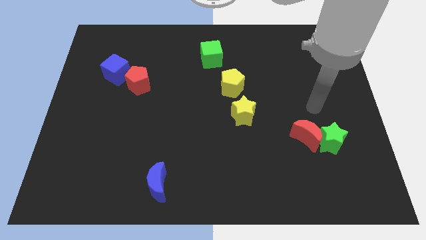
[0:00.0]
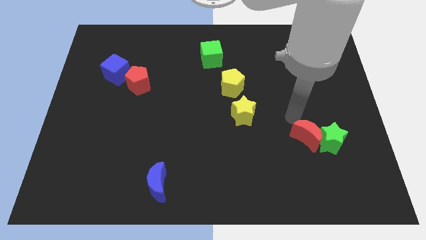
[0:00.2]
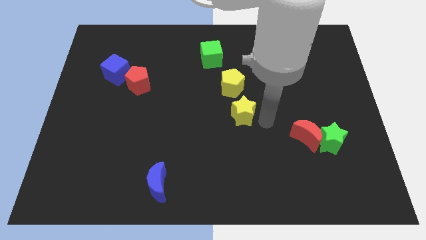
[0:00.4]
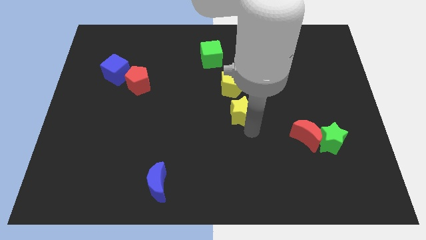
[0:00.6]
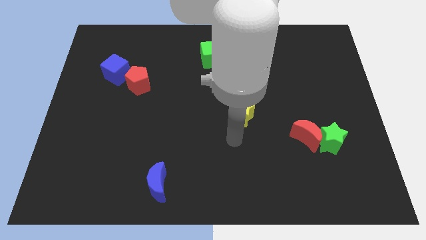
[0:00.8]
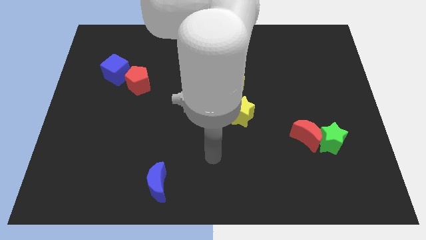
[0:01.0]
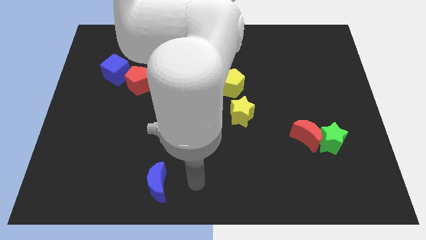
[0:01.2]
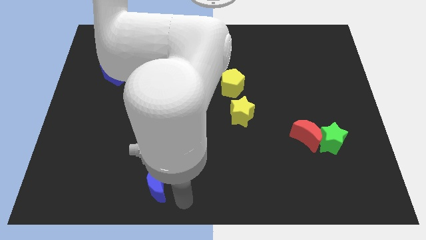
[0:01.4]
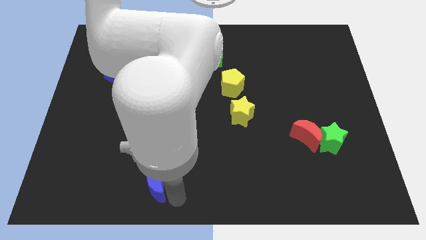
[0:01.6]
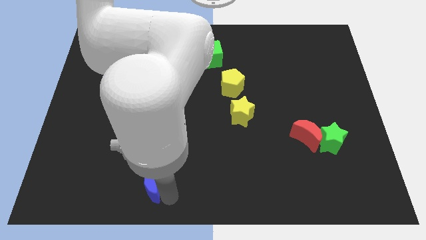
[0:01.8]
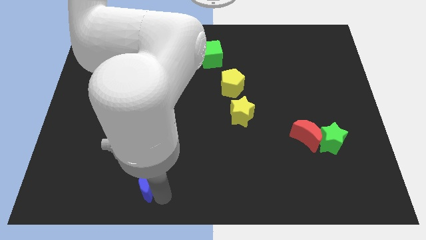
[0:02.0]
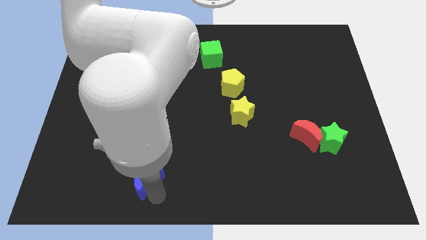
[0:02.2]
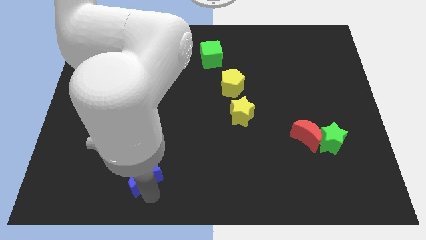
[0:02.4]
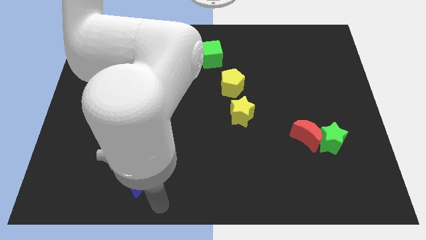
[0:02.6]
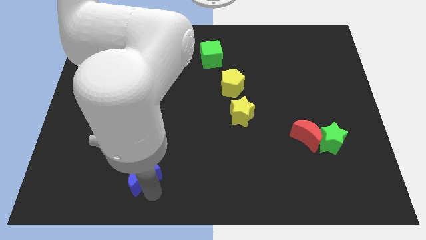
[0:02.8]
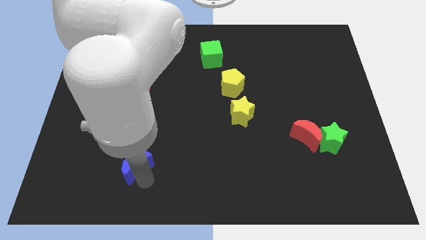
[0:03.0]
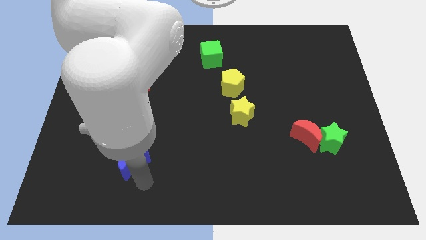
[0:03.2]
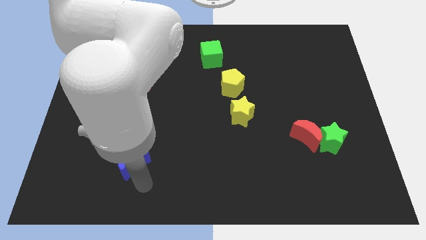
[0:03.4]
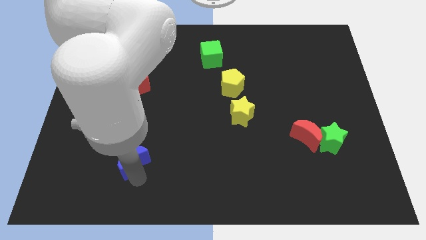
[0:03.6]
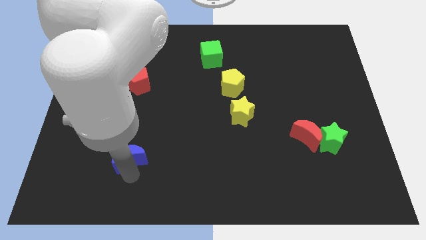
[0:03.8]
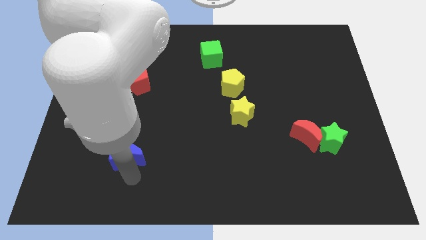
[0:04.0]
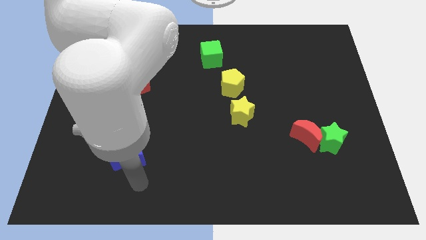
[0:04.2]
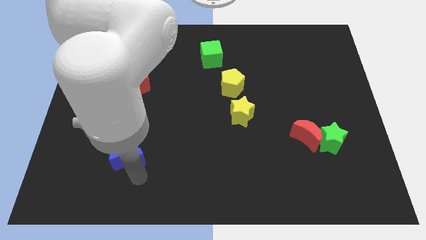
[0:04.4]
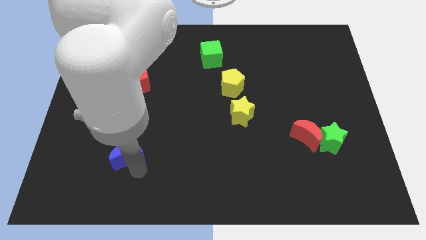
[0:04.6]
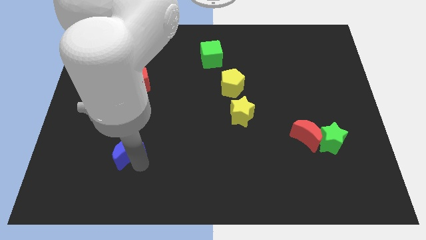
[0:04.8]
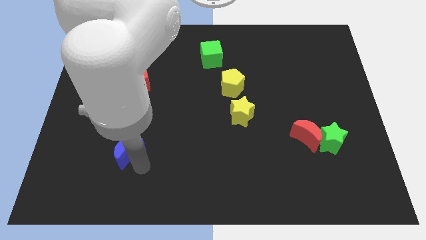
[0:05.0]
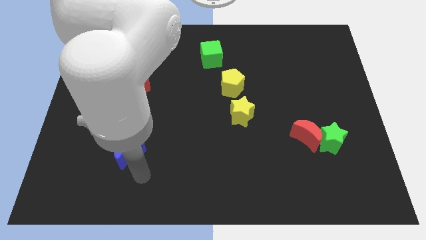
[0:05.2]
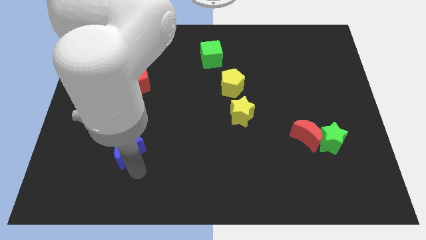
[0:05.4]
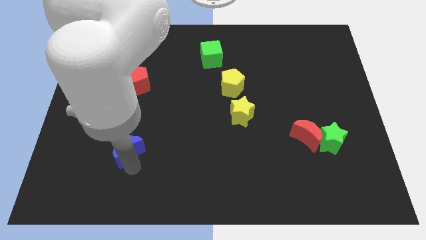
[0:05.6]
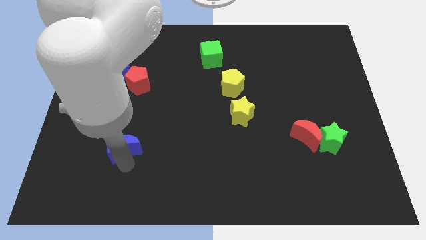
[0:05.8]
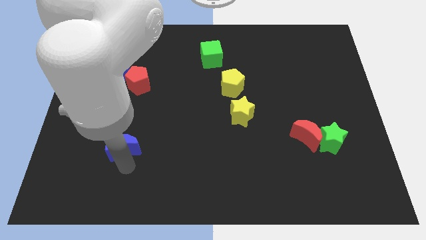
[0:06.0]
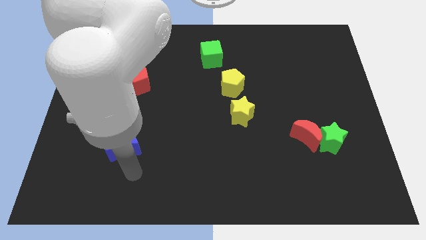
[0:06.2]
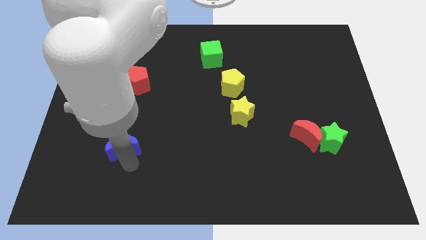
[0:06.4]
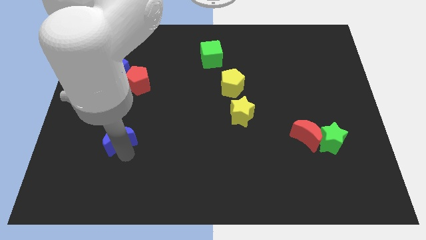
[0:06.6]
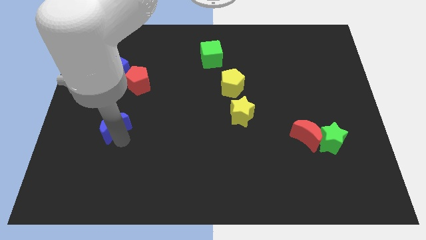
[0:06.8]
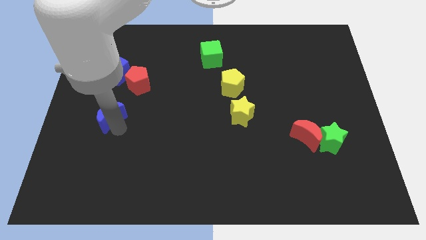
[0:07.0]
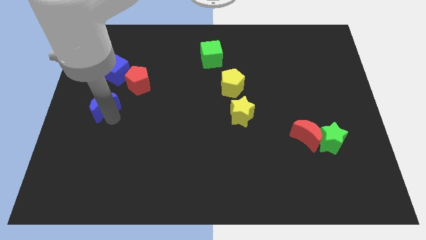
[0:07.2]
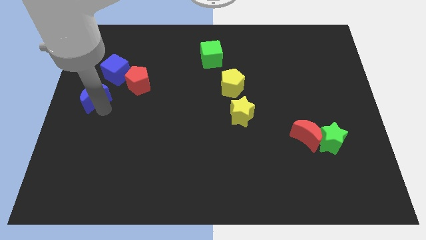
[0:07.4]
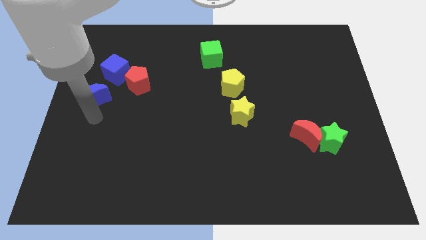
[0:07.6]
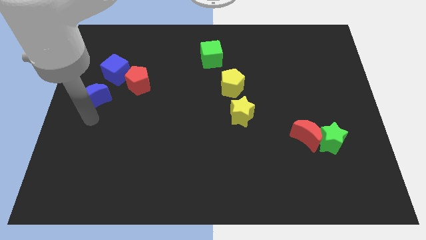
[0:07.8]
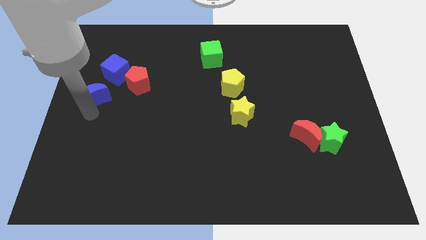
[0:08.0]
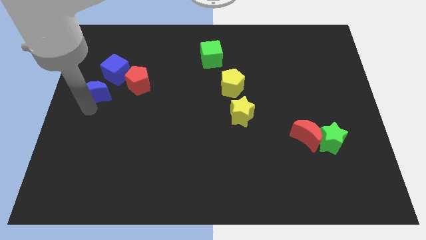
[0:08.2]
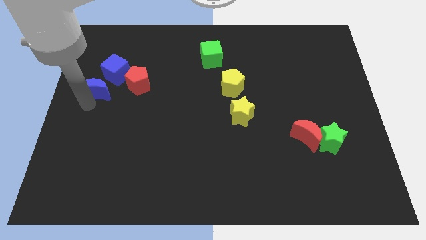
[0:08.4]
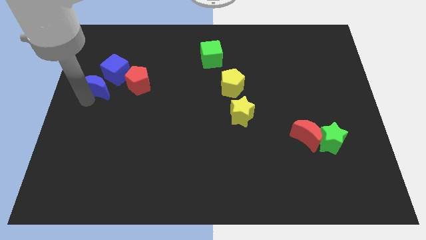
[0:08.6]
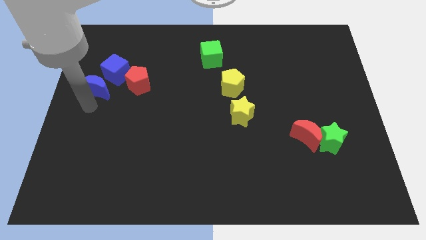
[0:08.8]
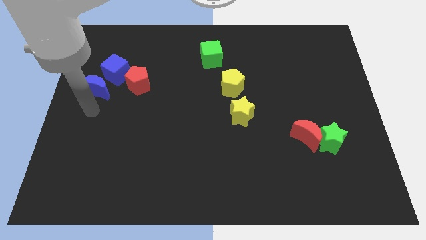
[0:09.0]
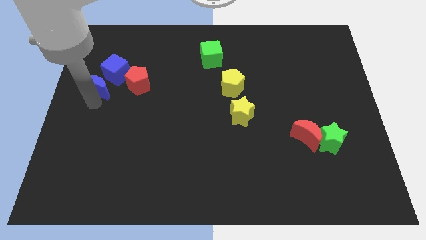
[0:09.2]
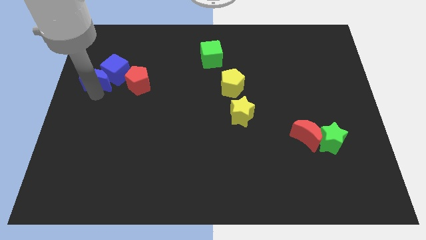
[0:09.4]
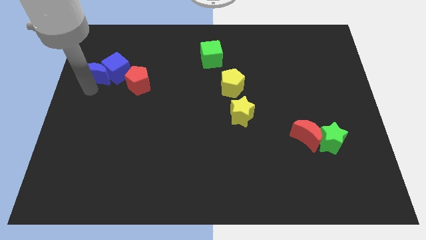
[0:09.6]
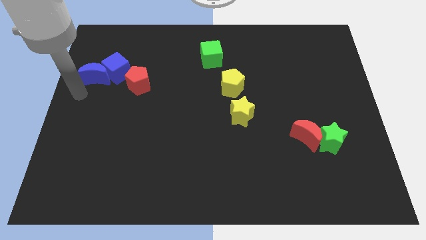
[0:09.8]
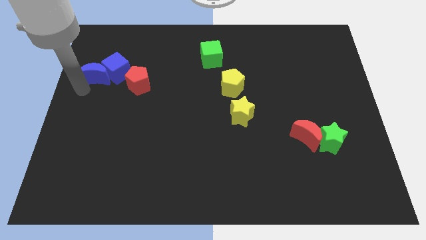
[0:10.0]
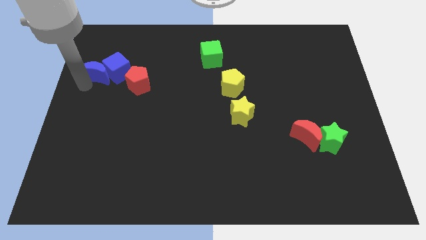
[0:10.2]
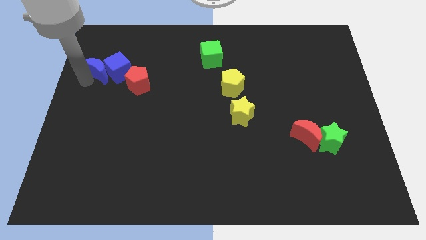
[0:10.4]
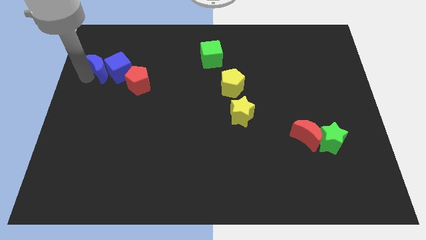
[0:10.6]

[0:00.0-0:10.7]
put the blue moon diagonally up and to the left of the red pentagon

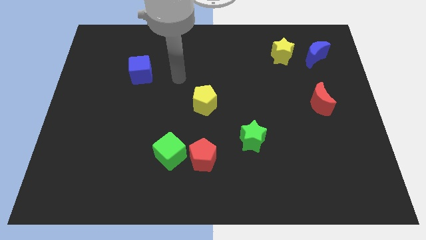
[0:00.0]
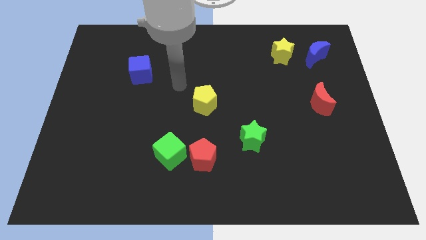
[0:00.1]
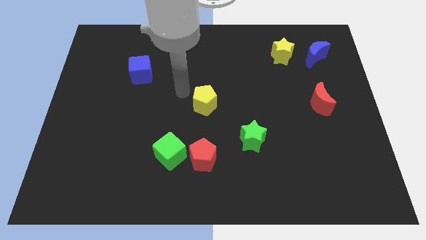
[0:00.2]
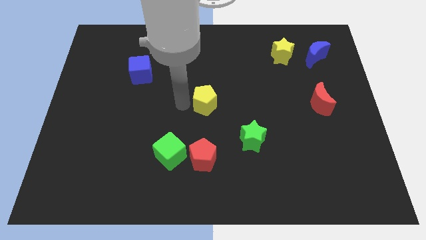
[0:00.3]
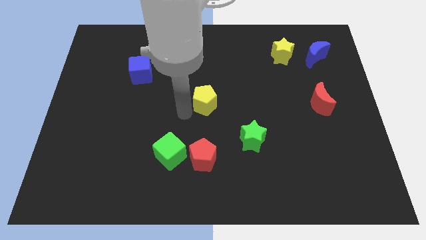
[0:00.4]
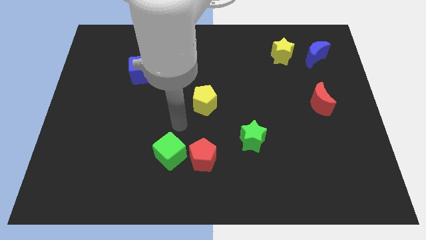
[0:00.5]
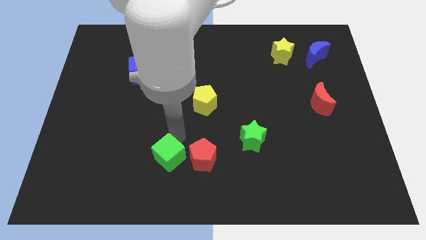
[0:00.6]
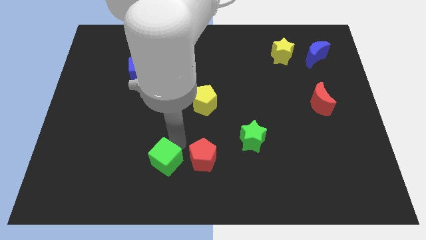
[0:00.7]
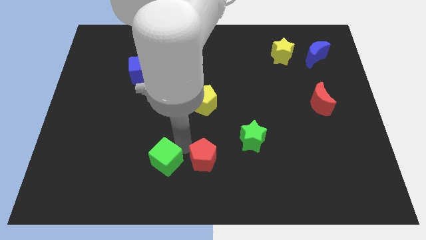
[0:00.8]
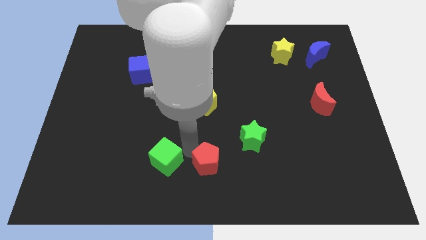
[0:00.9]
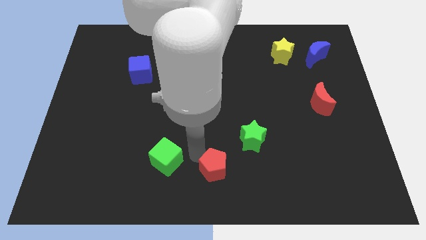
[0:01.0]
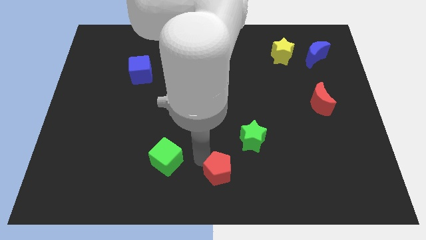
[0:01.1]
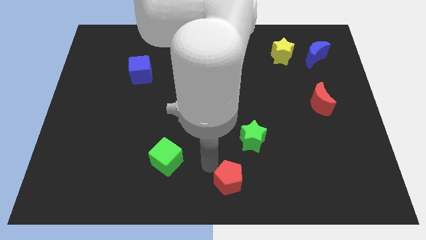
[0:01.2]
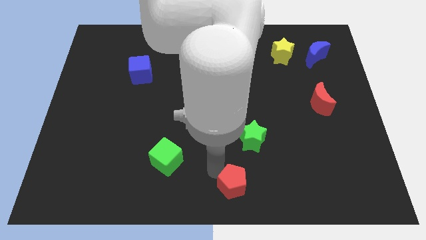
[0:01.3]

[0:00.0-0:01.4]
put the red pentagon below the green star

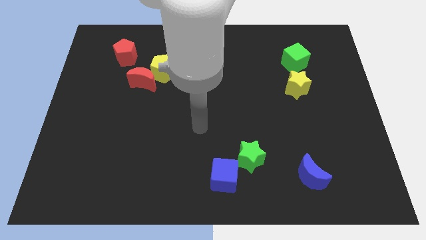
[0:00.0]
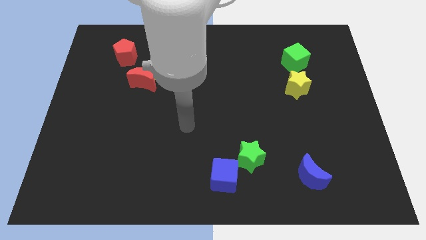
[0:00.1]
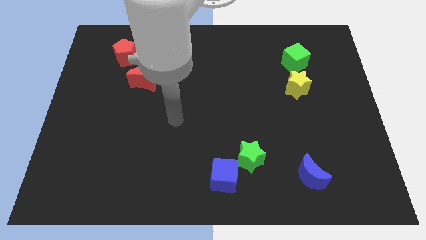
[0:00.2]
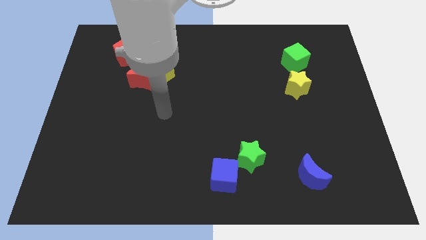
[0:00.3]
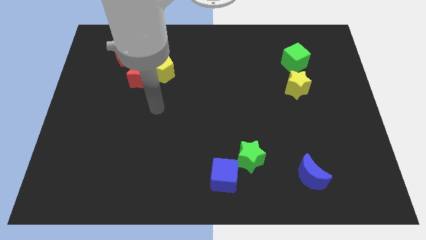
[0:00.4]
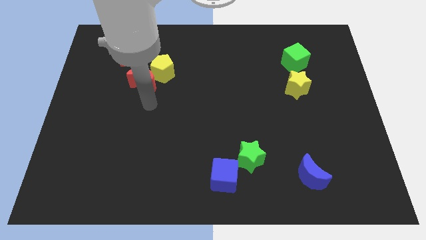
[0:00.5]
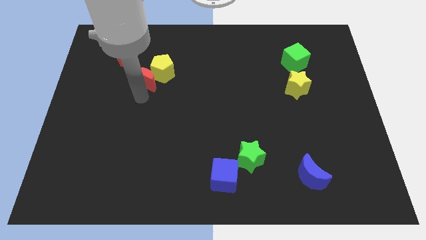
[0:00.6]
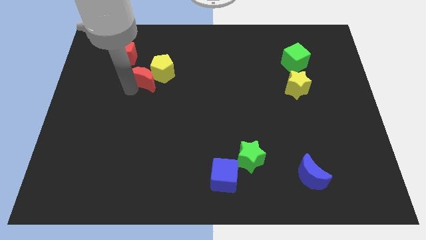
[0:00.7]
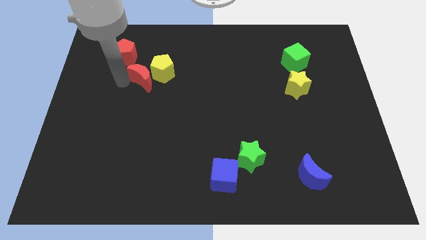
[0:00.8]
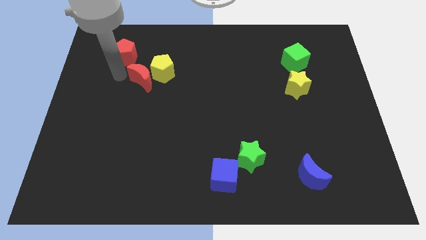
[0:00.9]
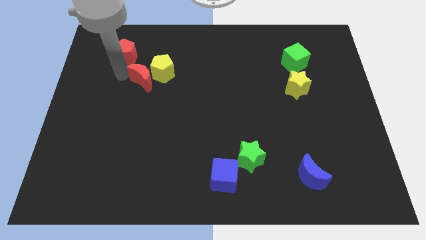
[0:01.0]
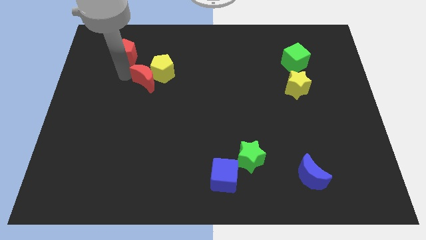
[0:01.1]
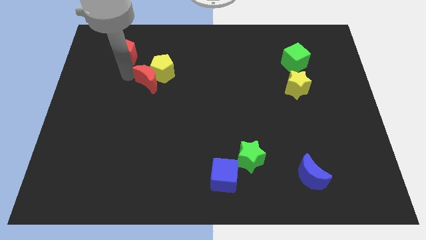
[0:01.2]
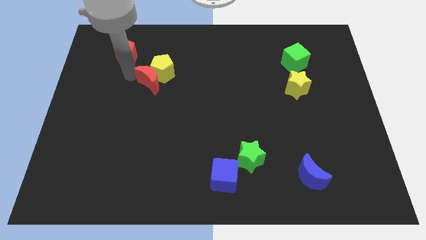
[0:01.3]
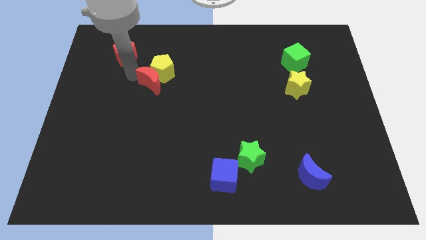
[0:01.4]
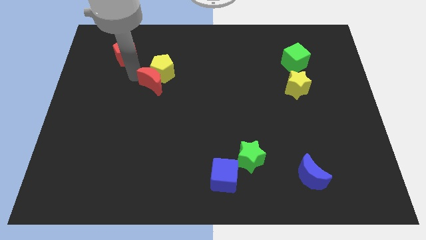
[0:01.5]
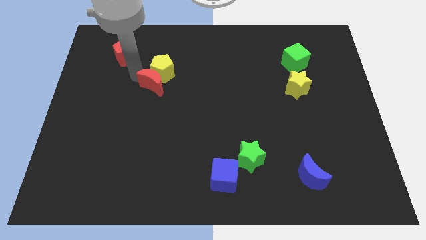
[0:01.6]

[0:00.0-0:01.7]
push the red moon to the bottom right of the yellow pentagon
